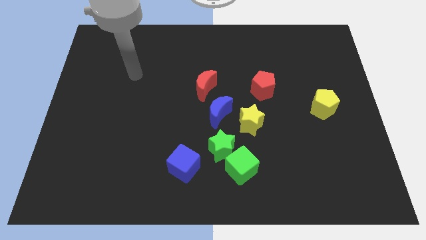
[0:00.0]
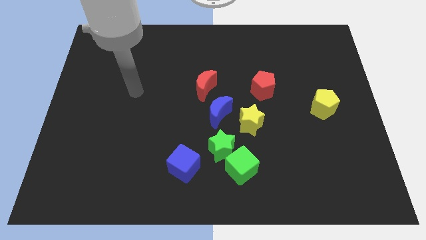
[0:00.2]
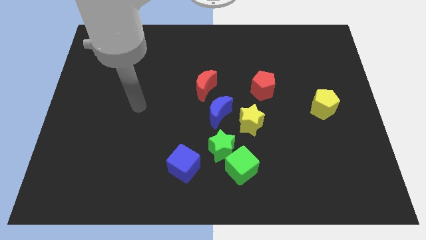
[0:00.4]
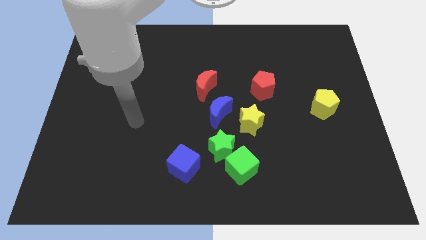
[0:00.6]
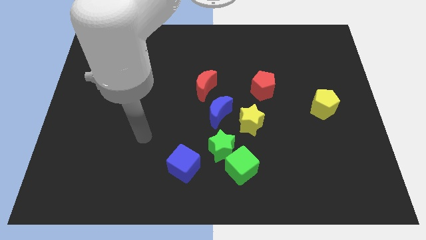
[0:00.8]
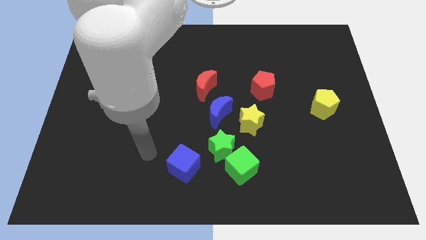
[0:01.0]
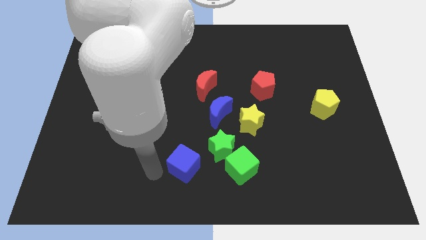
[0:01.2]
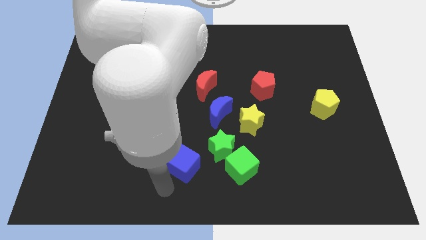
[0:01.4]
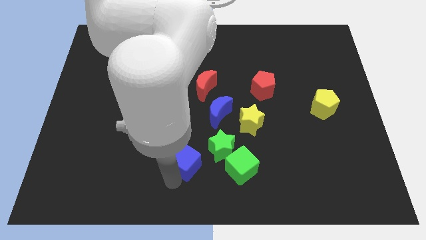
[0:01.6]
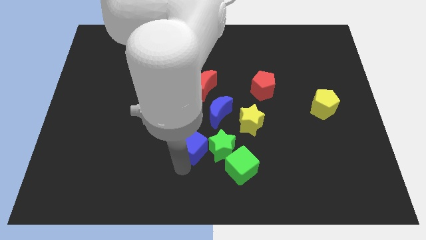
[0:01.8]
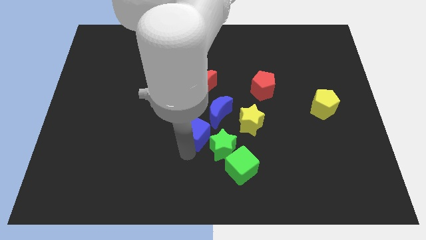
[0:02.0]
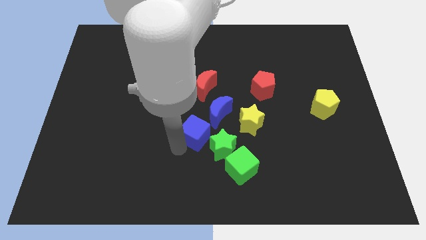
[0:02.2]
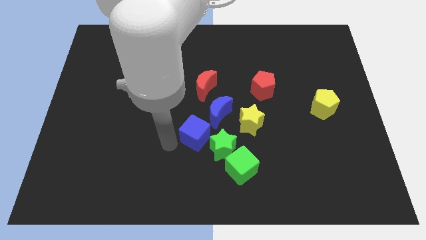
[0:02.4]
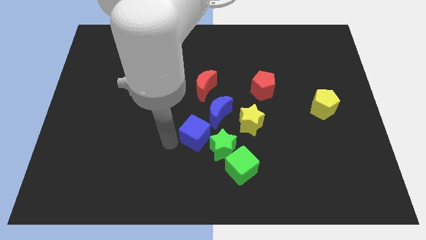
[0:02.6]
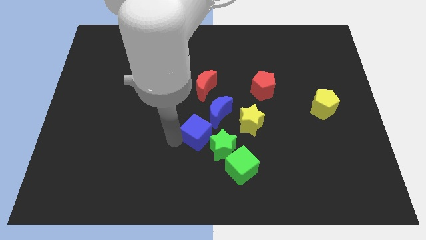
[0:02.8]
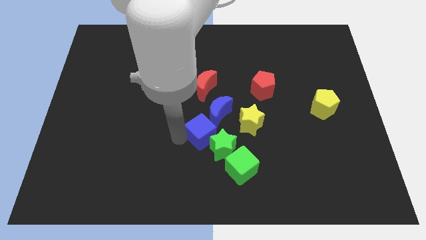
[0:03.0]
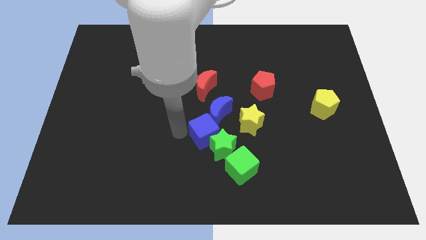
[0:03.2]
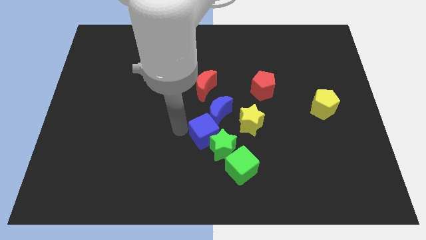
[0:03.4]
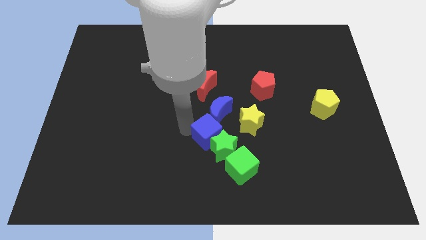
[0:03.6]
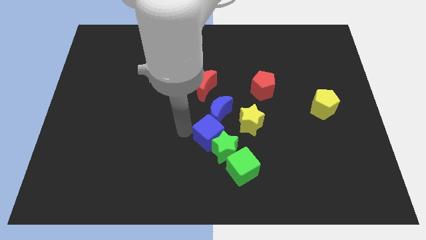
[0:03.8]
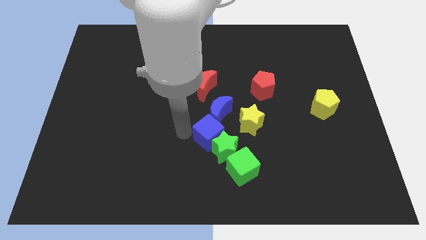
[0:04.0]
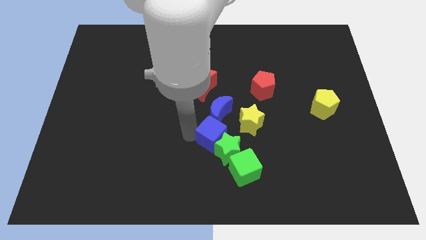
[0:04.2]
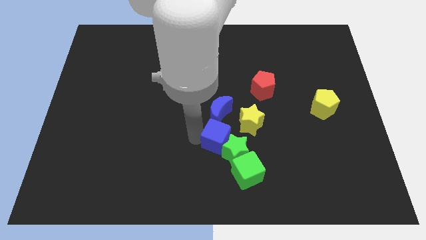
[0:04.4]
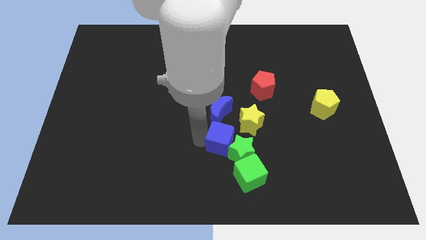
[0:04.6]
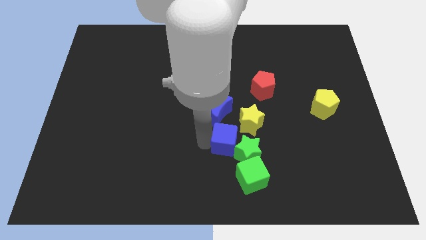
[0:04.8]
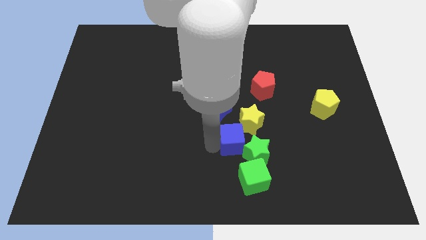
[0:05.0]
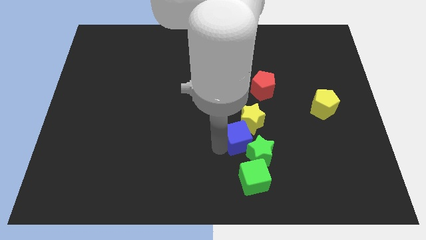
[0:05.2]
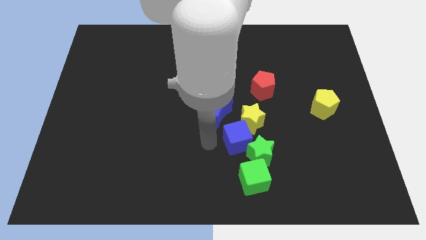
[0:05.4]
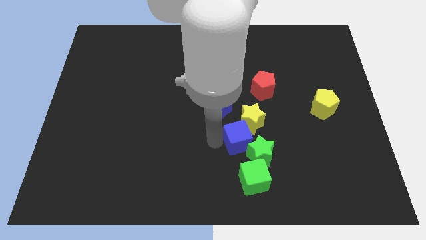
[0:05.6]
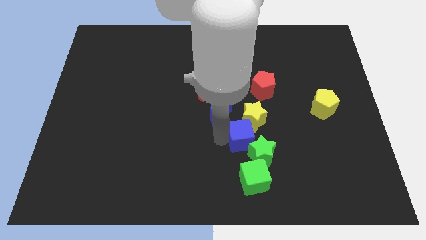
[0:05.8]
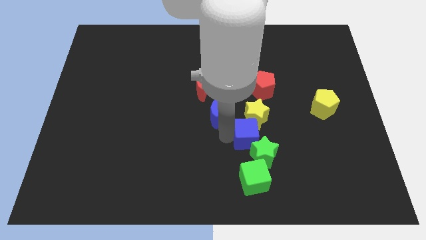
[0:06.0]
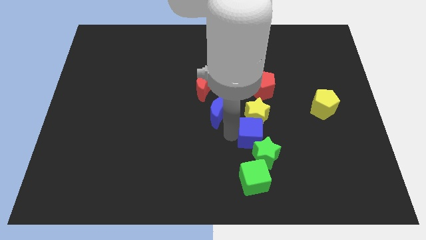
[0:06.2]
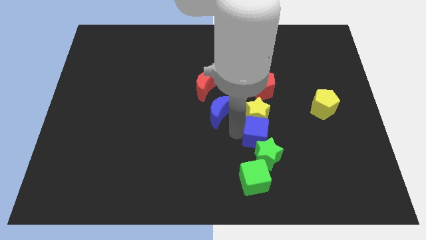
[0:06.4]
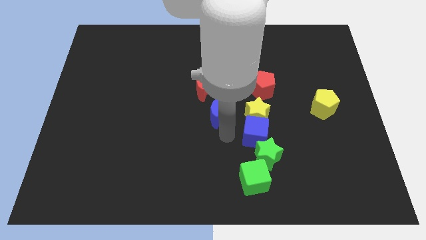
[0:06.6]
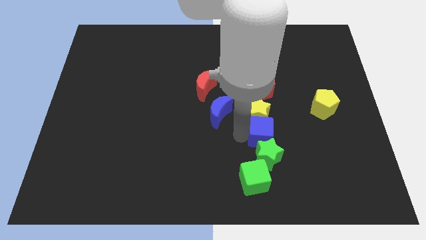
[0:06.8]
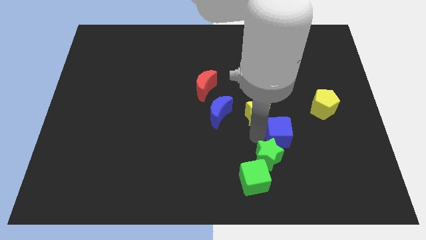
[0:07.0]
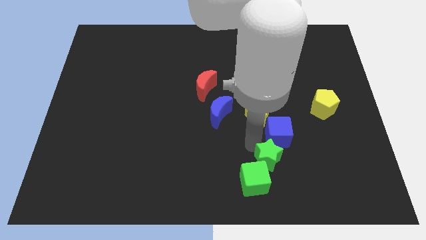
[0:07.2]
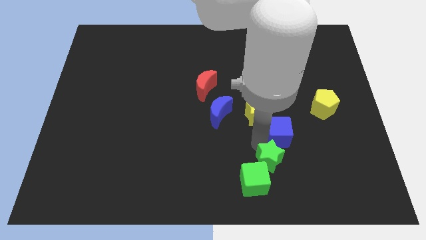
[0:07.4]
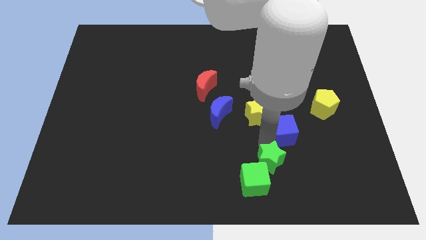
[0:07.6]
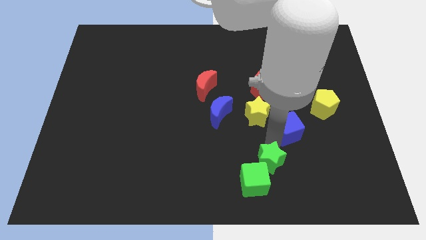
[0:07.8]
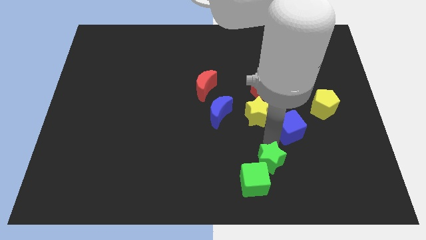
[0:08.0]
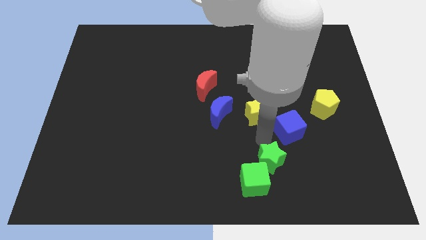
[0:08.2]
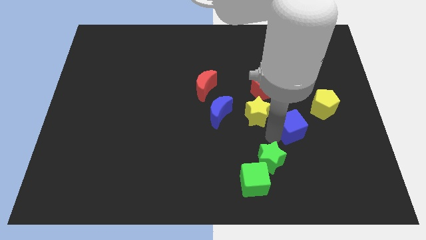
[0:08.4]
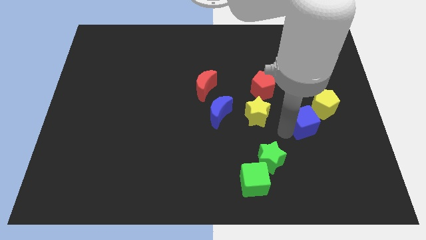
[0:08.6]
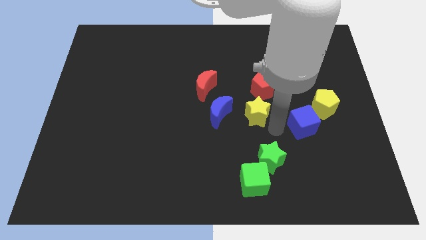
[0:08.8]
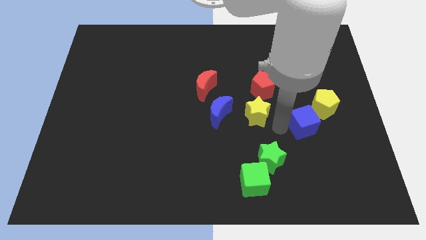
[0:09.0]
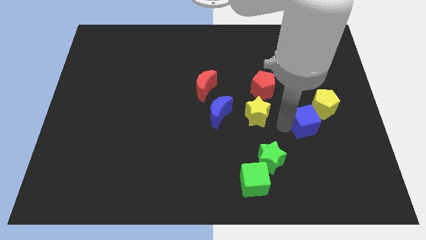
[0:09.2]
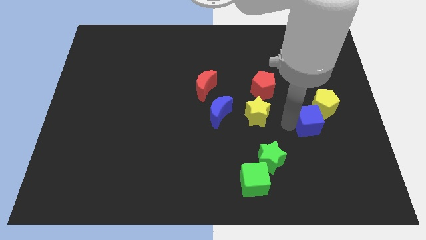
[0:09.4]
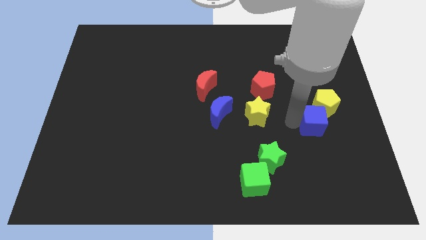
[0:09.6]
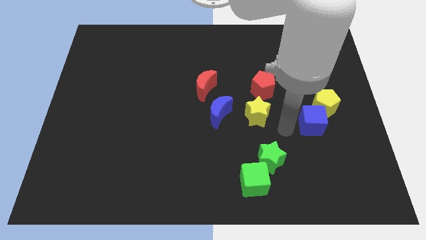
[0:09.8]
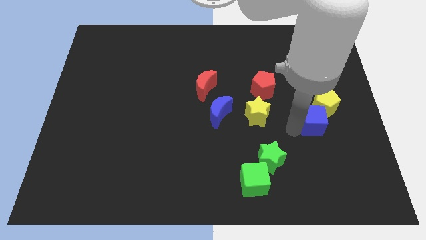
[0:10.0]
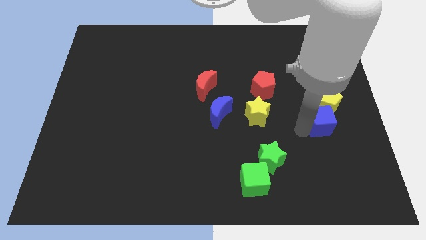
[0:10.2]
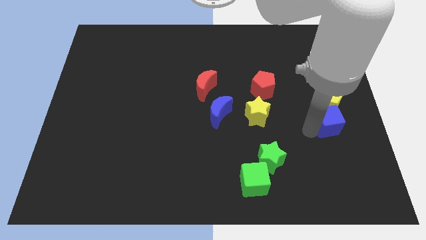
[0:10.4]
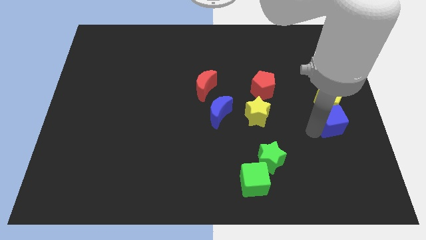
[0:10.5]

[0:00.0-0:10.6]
push the blue cube to the right side of the board

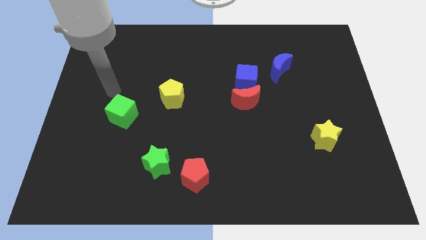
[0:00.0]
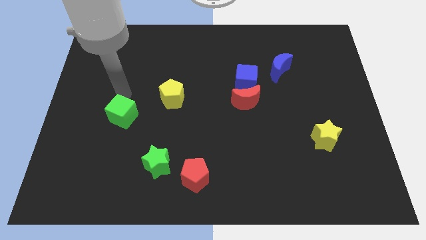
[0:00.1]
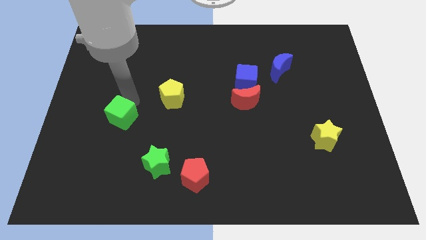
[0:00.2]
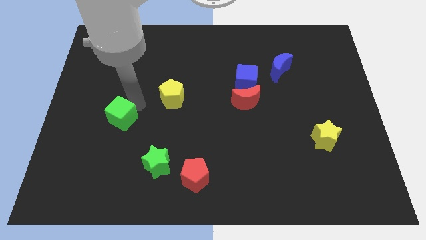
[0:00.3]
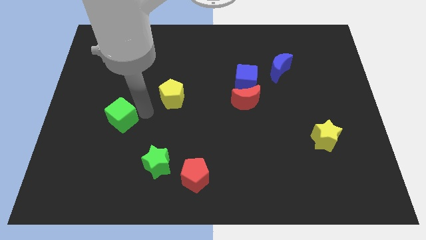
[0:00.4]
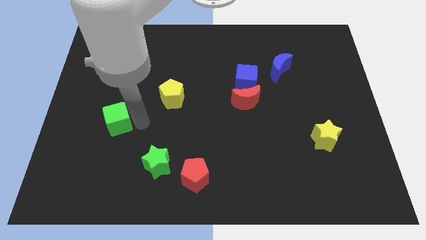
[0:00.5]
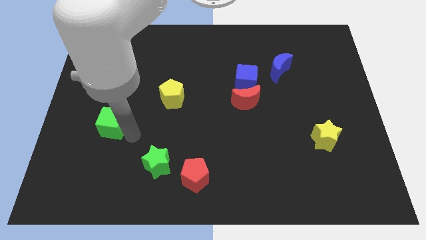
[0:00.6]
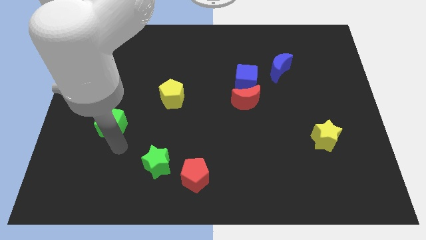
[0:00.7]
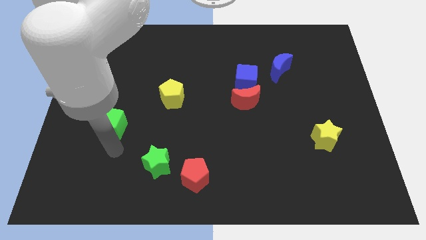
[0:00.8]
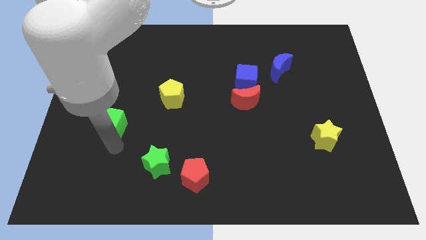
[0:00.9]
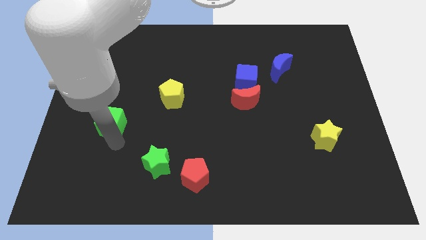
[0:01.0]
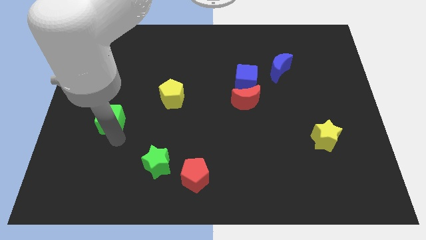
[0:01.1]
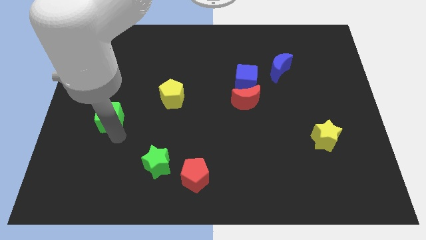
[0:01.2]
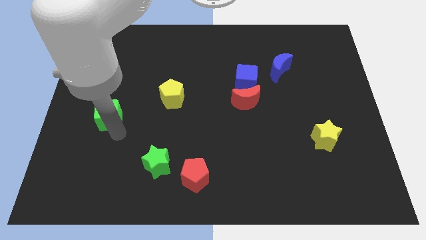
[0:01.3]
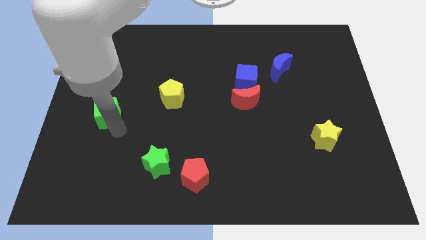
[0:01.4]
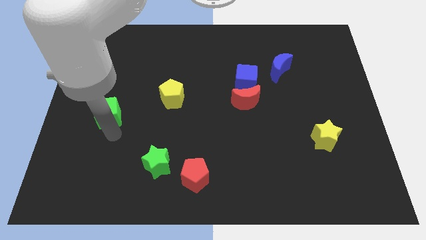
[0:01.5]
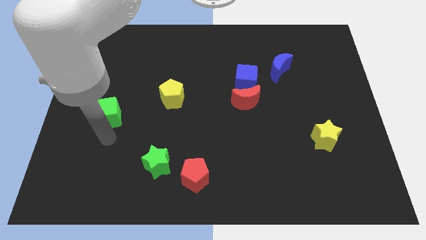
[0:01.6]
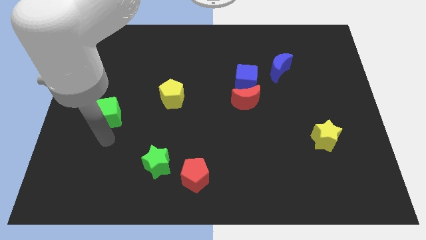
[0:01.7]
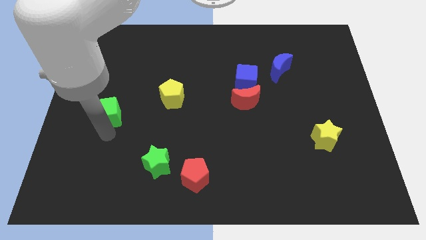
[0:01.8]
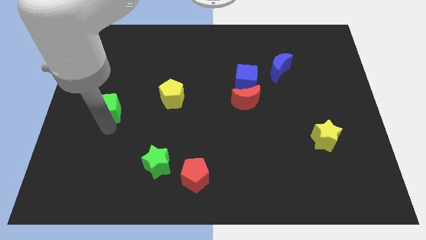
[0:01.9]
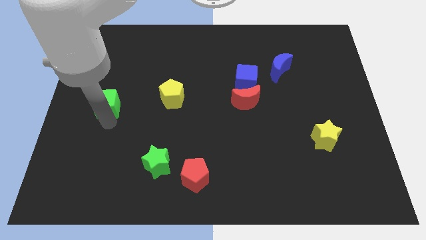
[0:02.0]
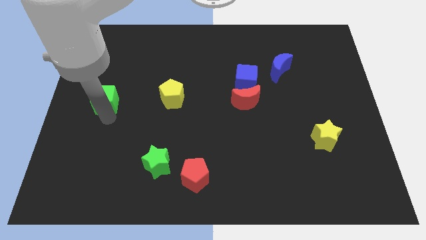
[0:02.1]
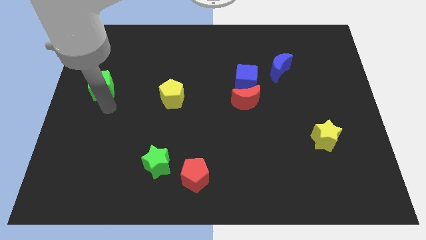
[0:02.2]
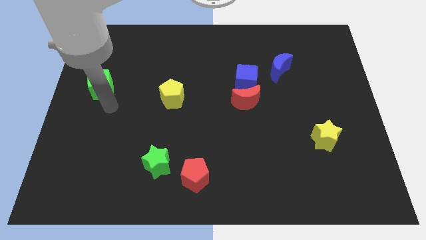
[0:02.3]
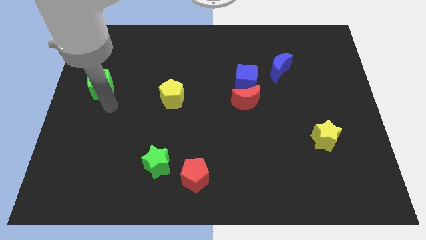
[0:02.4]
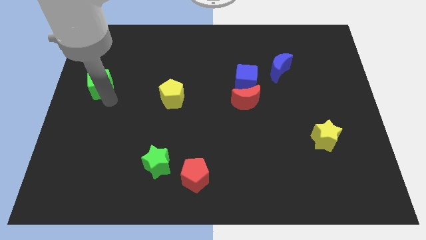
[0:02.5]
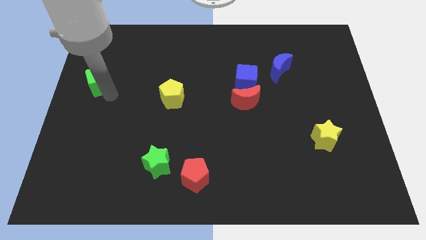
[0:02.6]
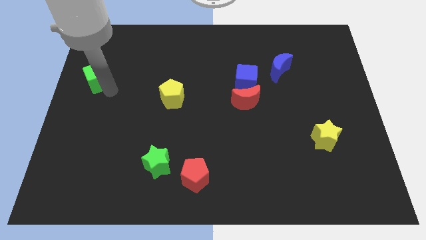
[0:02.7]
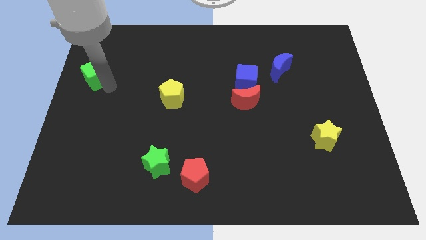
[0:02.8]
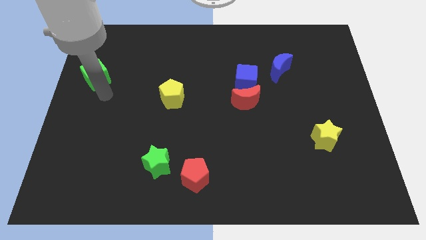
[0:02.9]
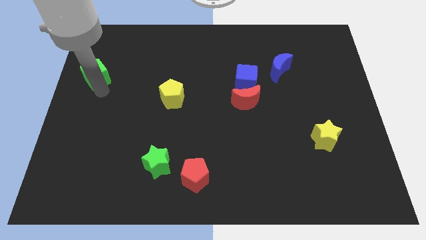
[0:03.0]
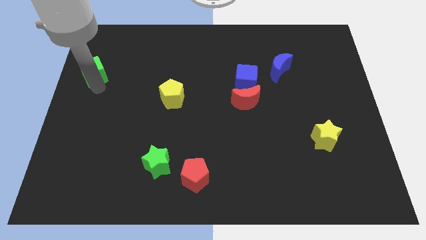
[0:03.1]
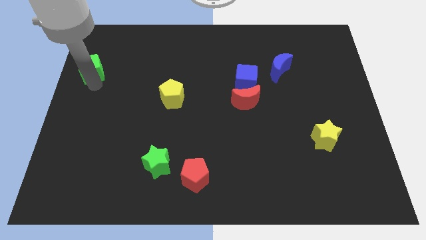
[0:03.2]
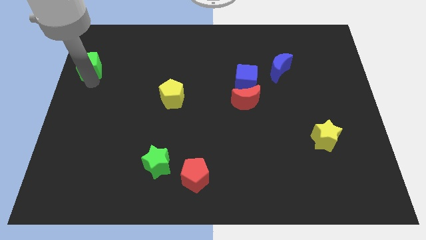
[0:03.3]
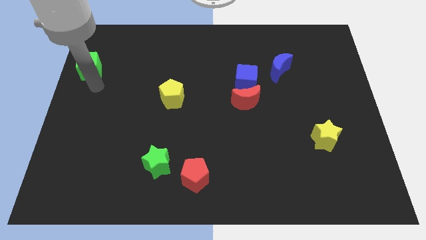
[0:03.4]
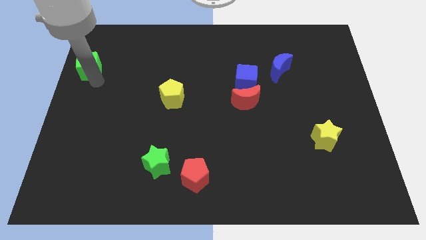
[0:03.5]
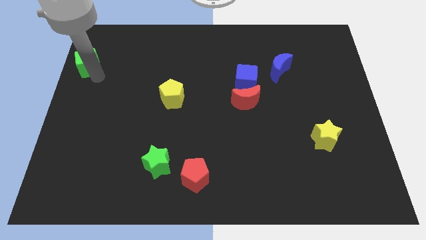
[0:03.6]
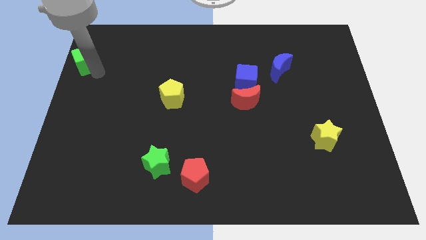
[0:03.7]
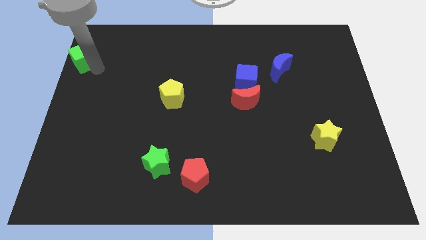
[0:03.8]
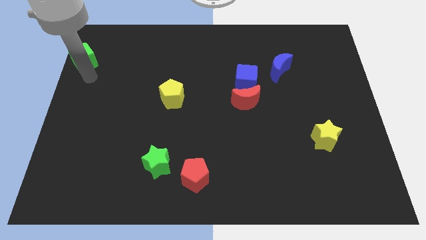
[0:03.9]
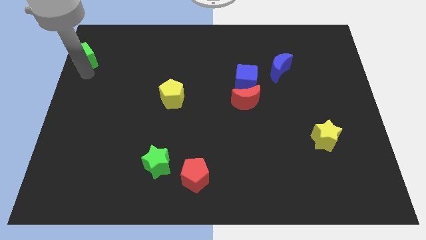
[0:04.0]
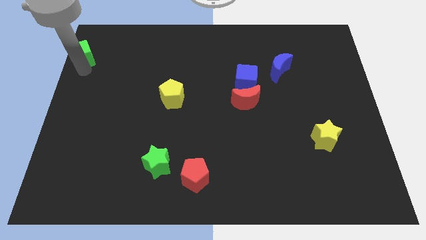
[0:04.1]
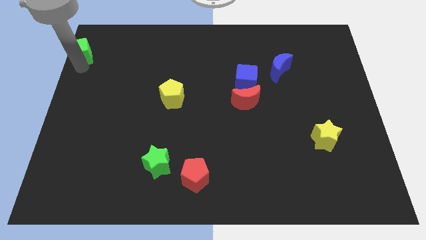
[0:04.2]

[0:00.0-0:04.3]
put the green cube to the top left corner
